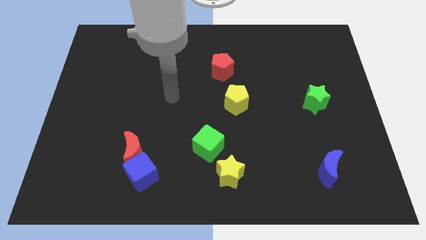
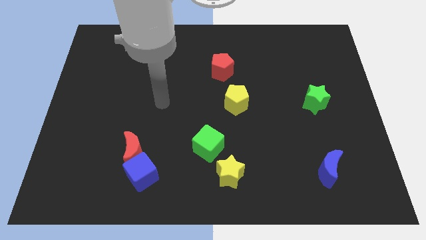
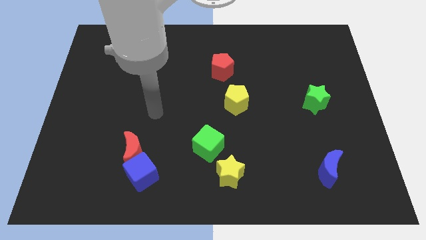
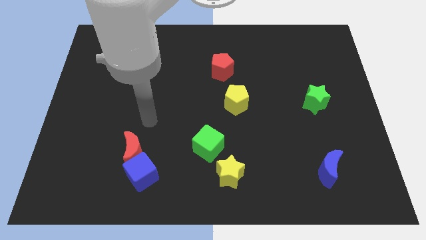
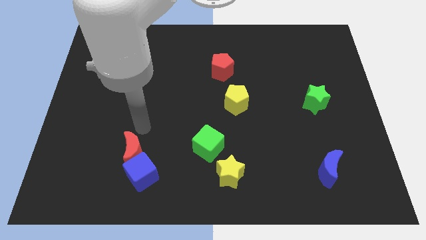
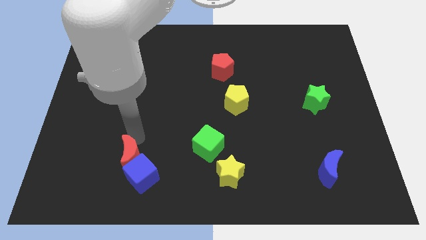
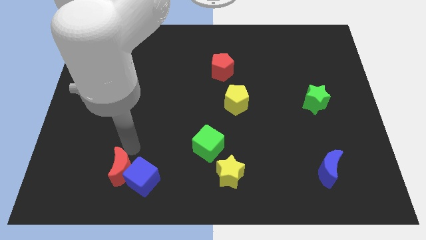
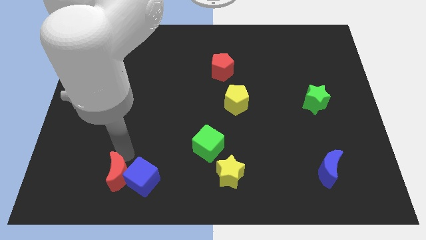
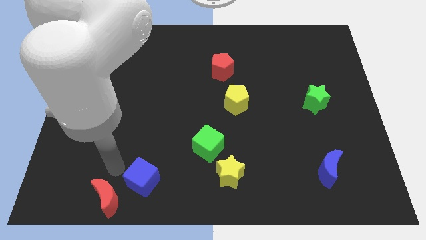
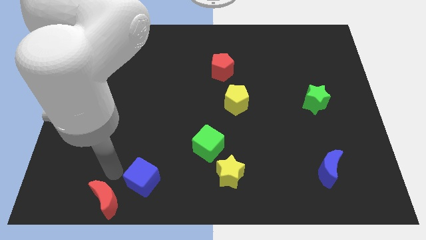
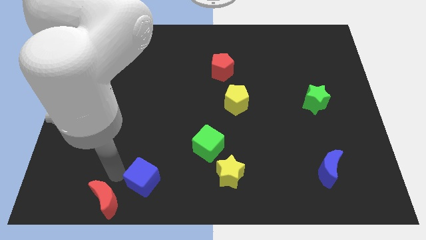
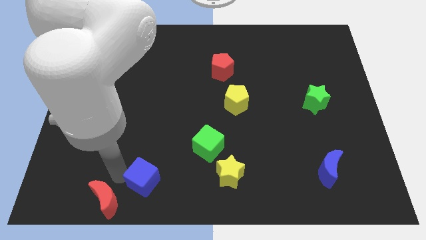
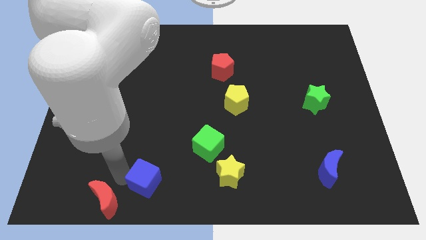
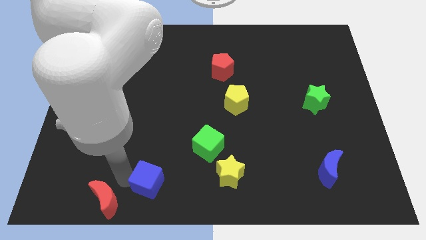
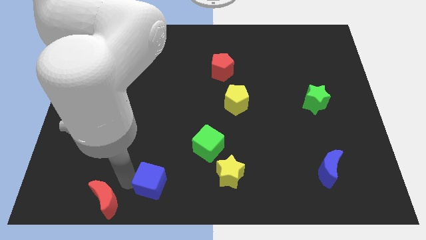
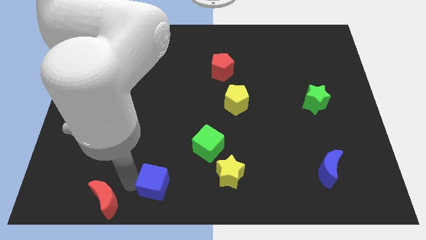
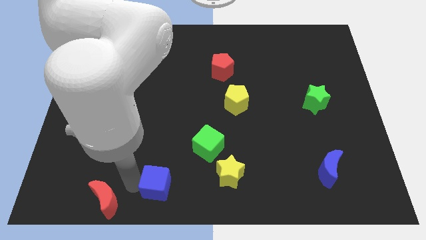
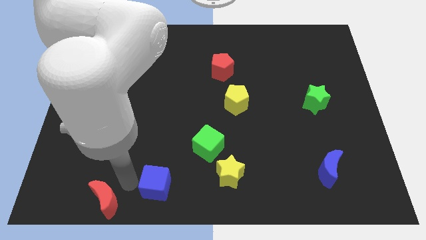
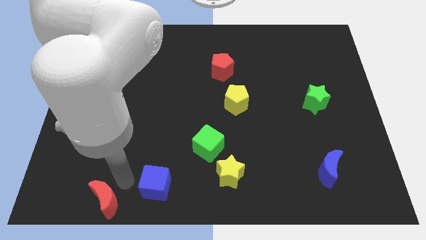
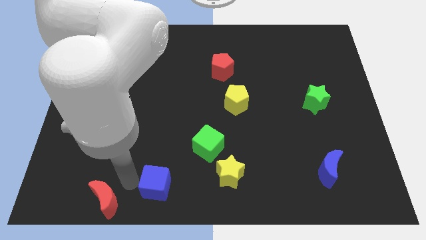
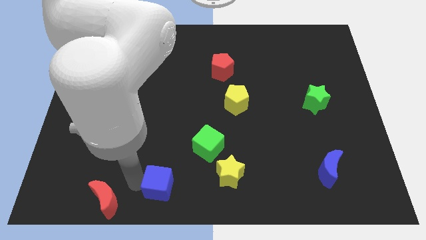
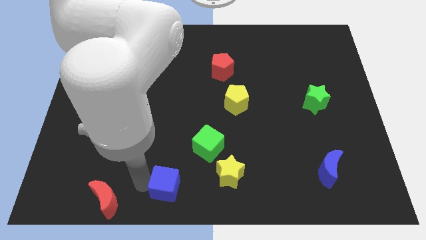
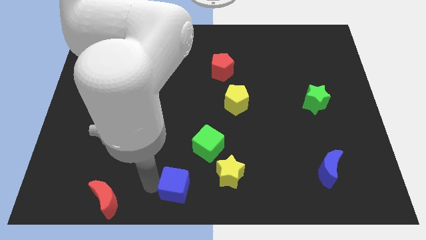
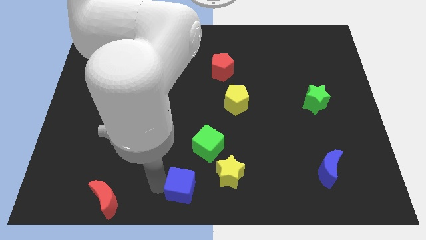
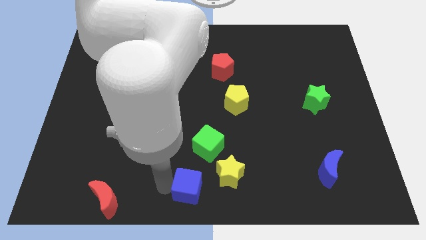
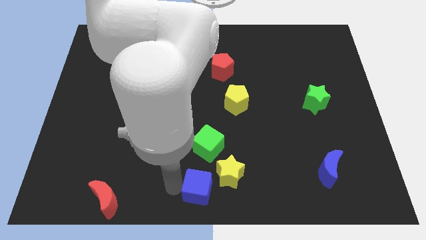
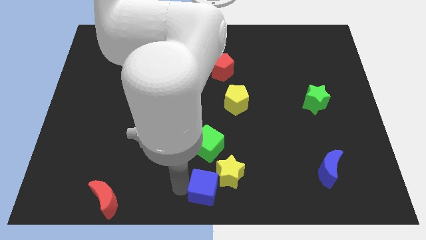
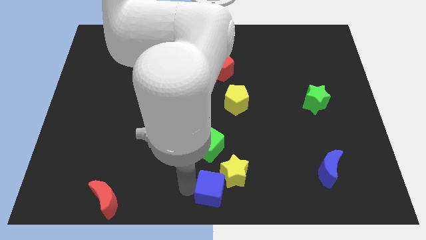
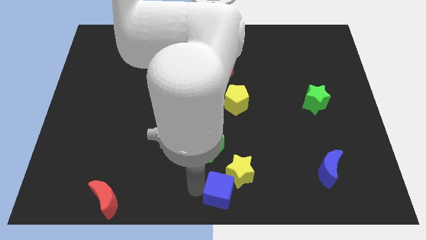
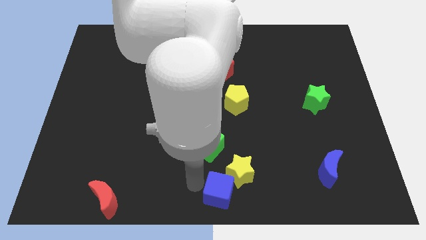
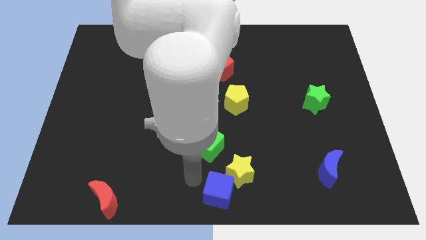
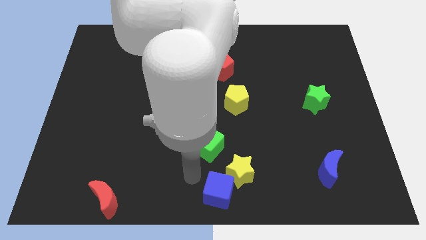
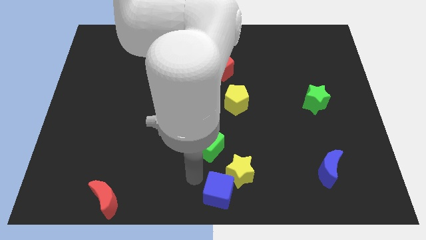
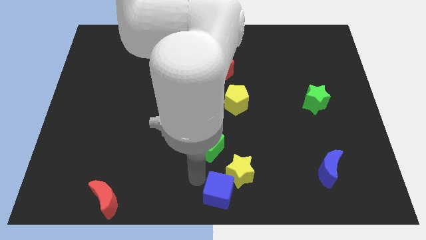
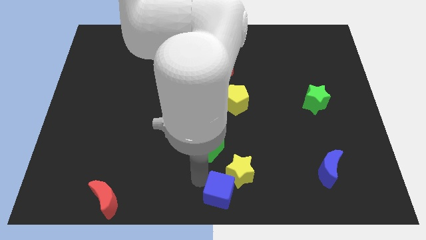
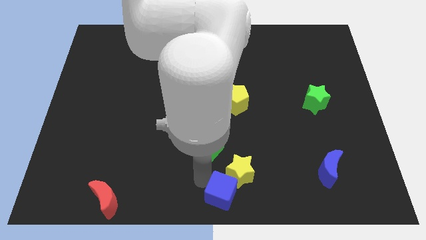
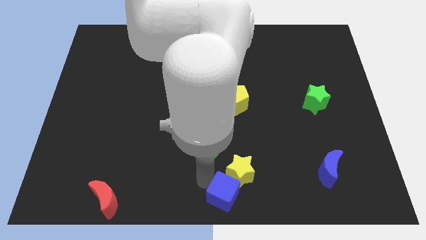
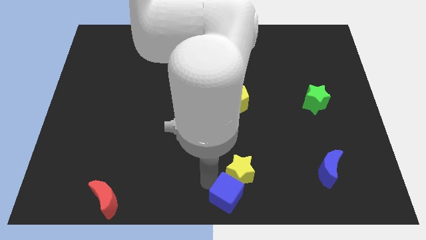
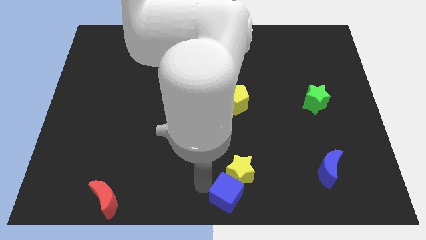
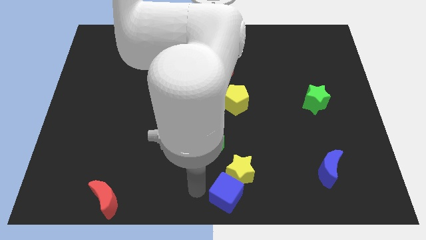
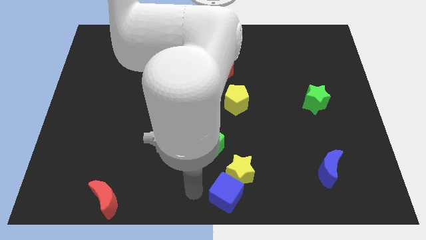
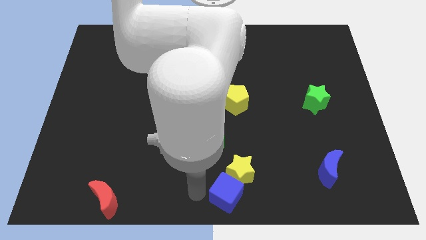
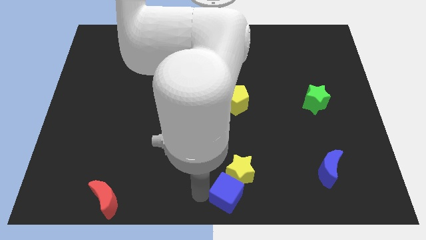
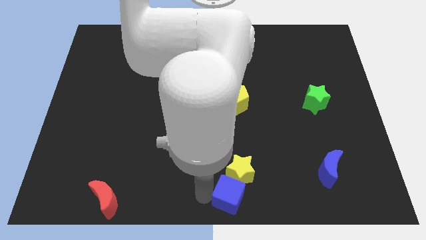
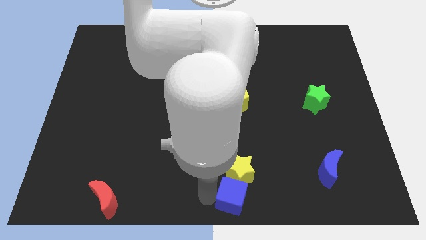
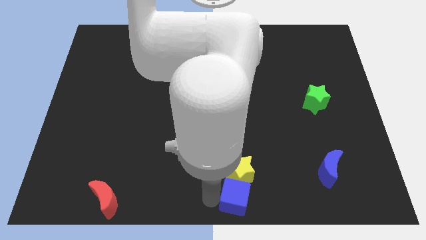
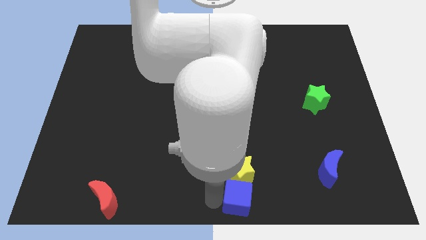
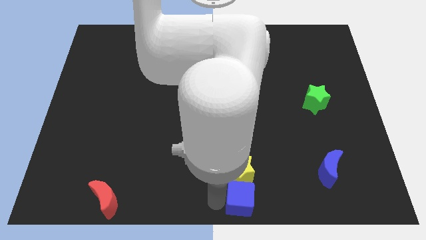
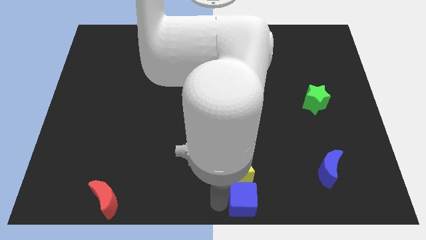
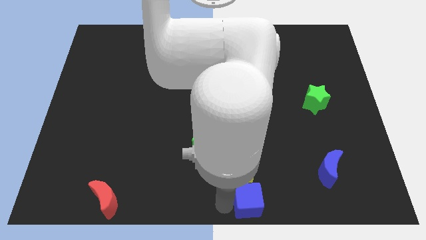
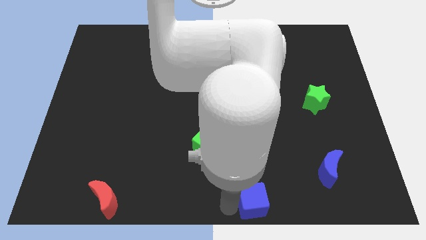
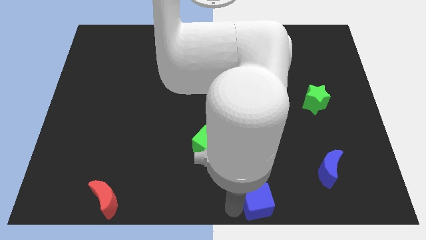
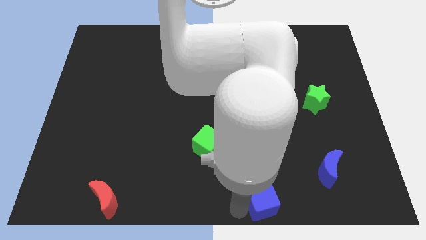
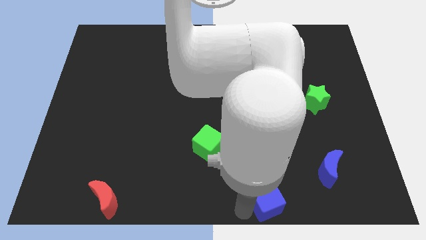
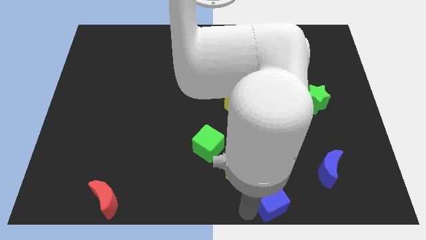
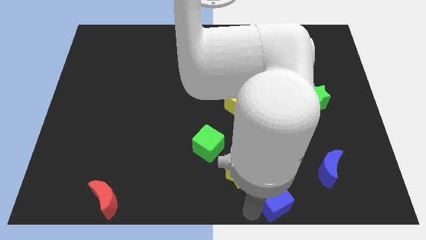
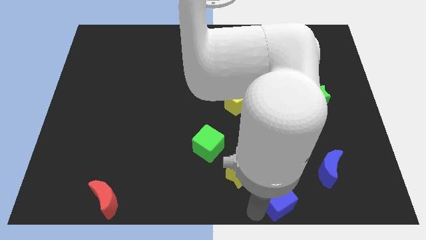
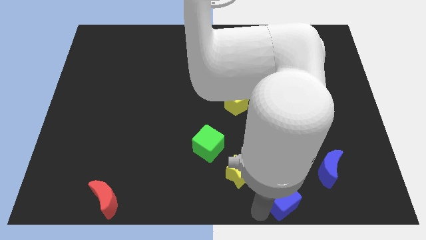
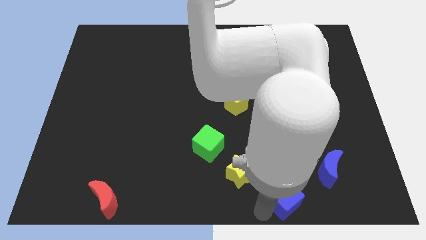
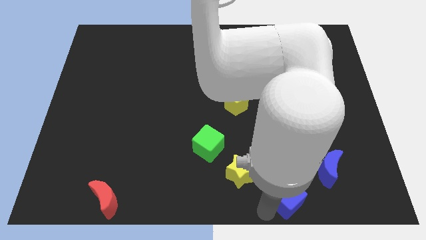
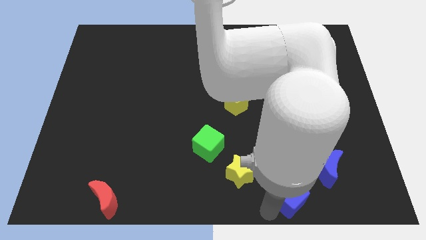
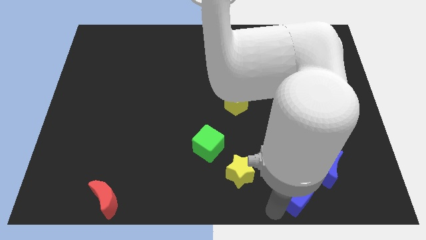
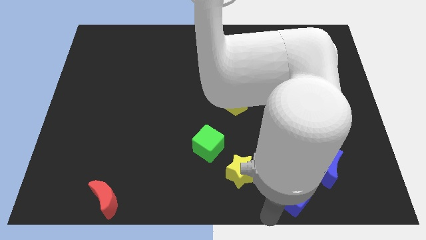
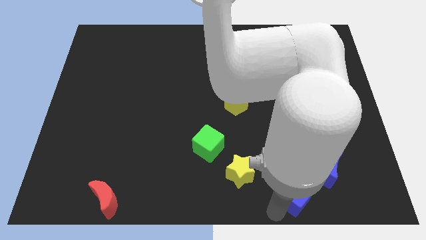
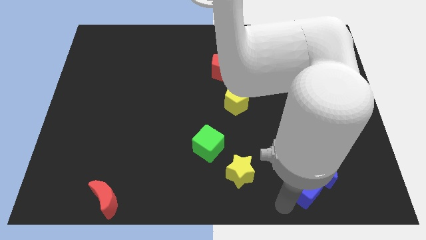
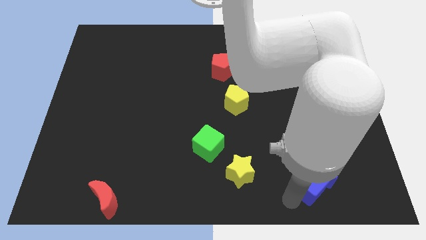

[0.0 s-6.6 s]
move the blue cube next to the blue moon

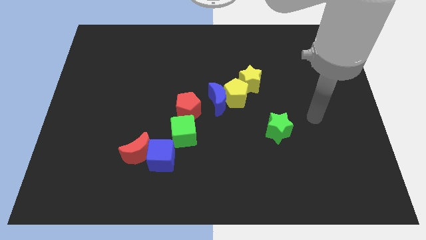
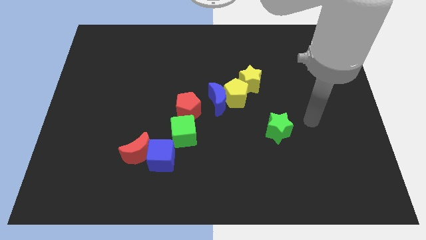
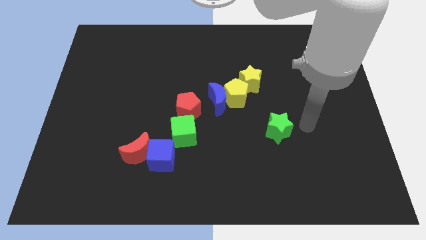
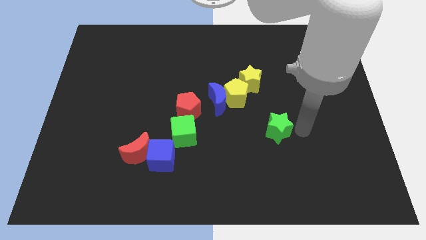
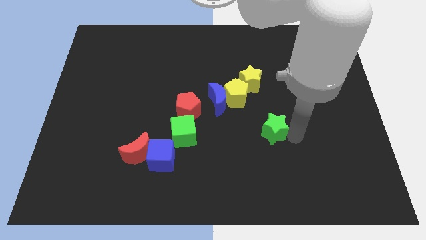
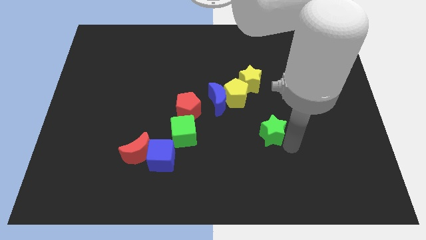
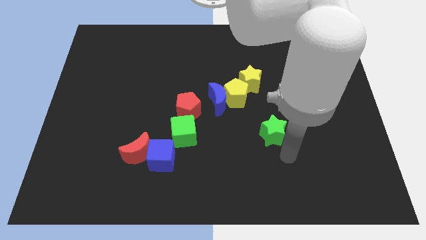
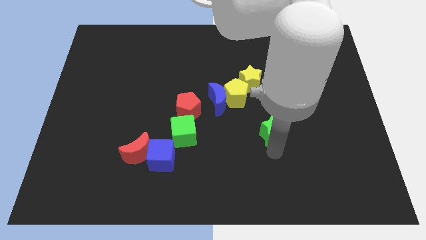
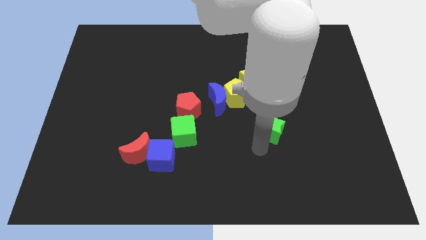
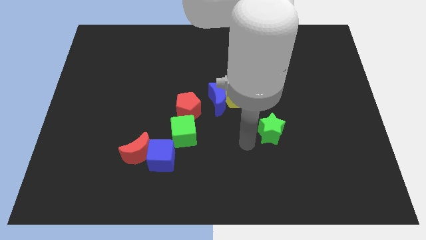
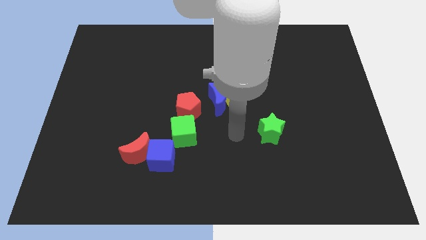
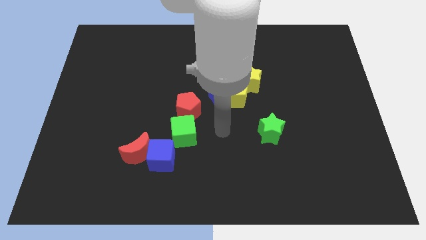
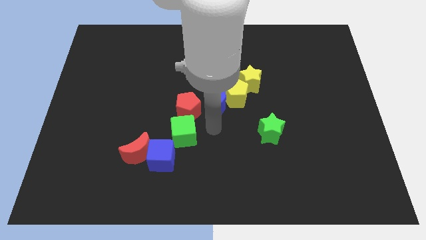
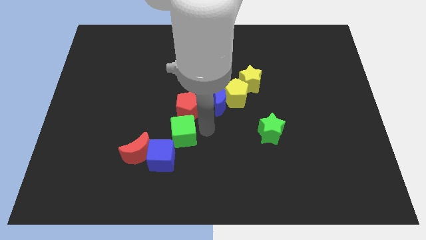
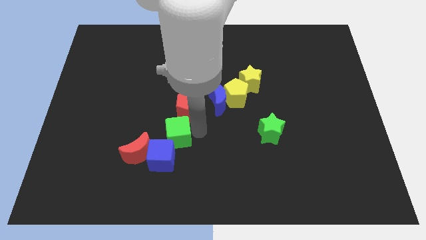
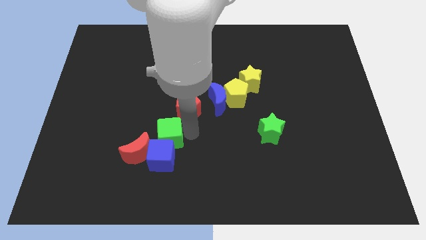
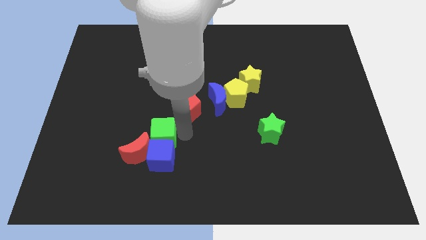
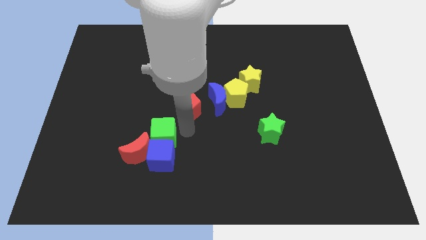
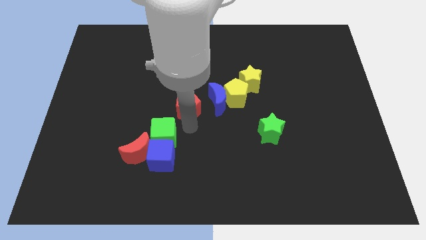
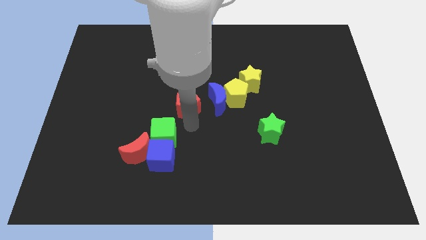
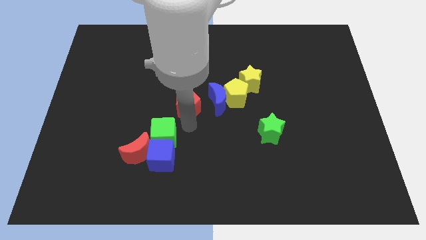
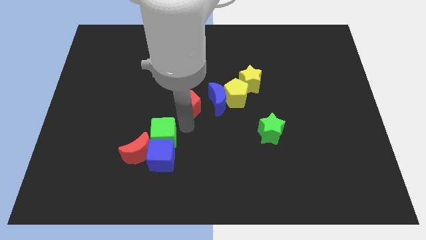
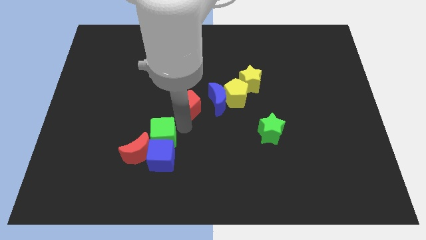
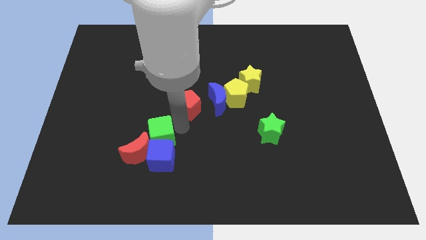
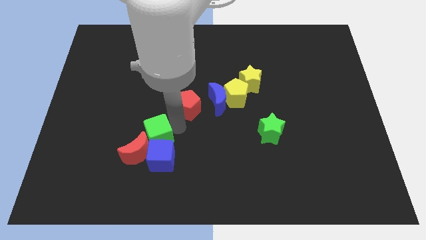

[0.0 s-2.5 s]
put the green cube close to the red moon
